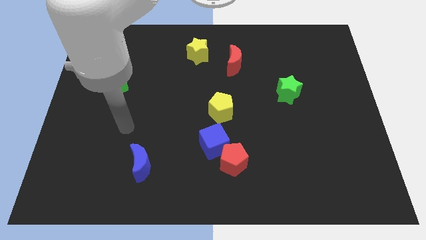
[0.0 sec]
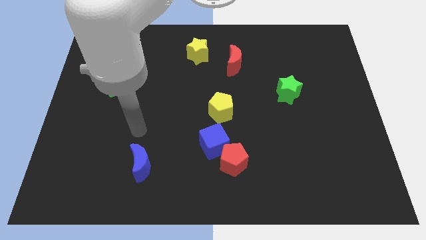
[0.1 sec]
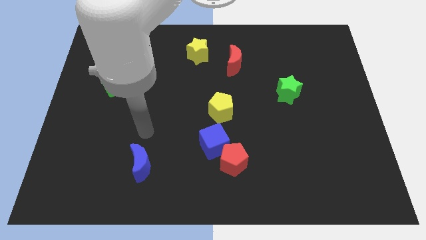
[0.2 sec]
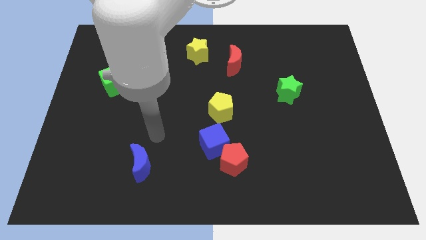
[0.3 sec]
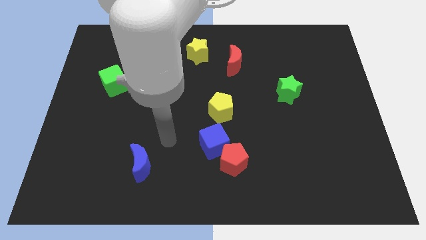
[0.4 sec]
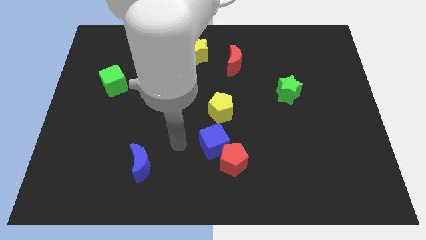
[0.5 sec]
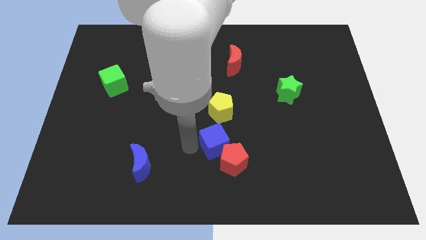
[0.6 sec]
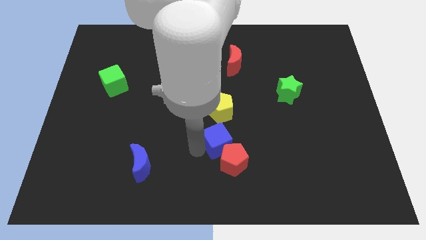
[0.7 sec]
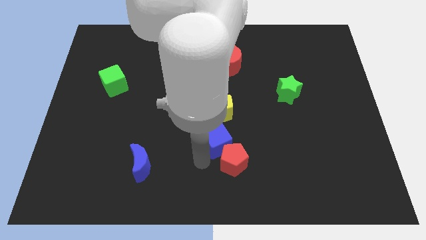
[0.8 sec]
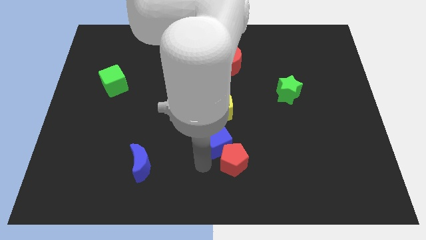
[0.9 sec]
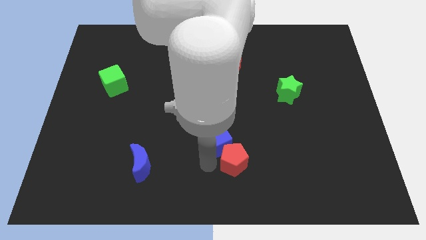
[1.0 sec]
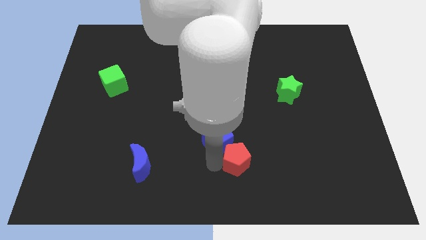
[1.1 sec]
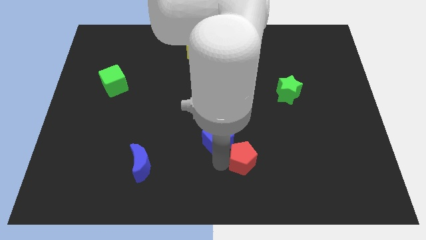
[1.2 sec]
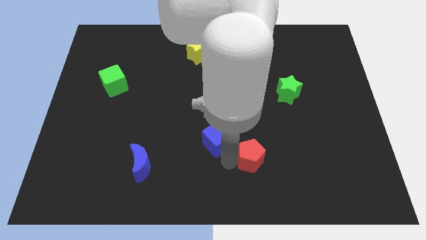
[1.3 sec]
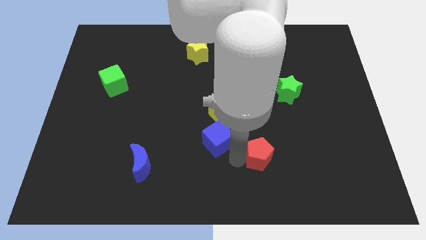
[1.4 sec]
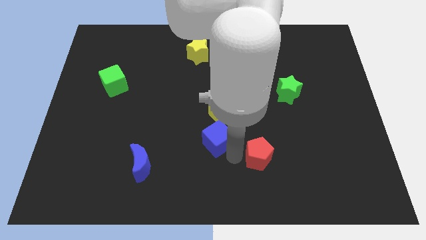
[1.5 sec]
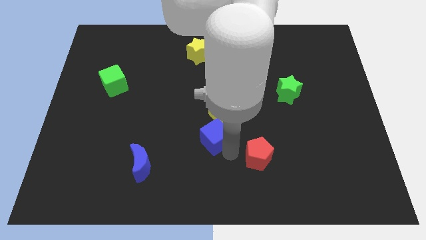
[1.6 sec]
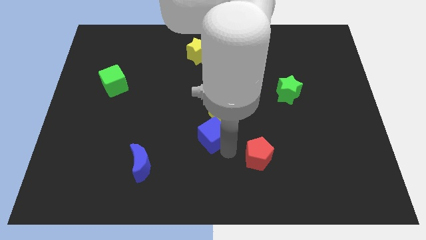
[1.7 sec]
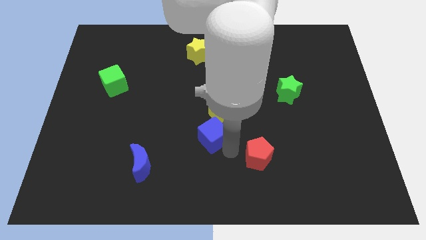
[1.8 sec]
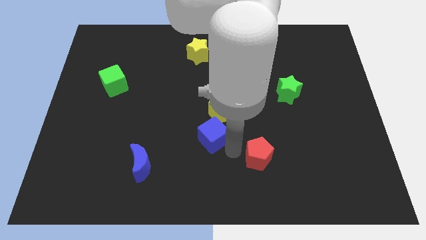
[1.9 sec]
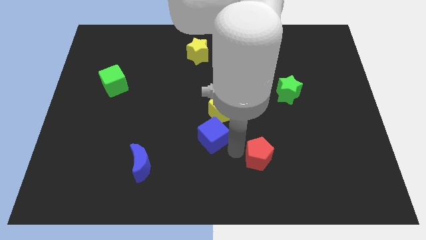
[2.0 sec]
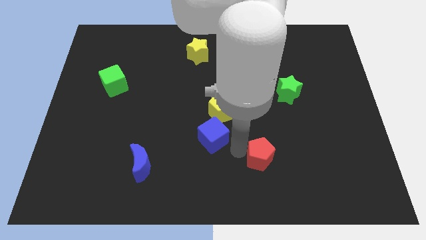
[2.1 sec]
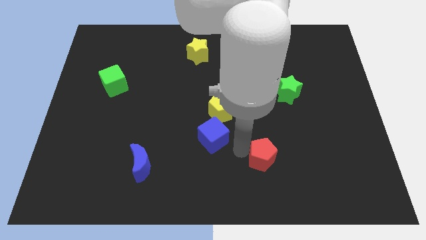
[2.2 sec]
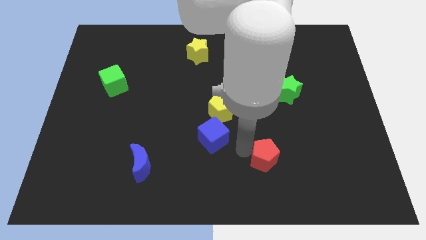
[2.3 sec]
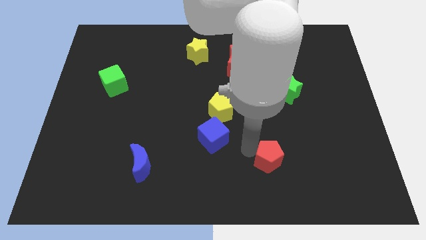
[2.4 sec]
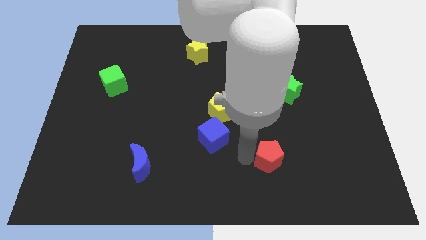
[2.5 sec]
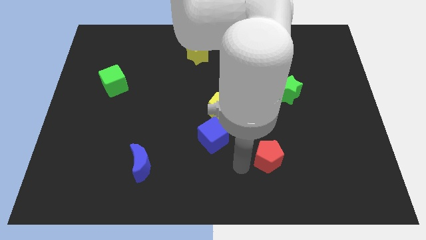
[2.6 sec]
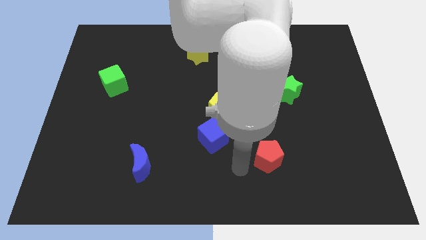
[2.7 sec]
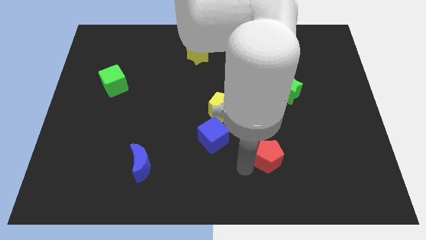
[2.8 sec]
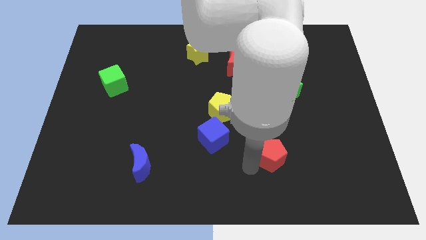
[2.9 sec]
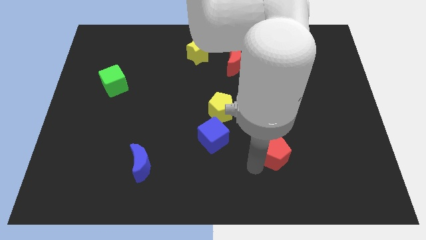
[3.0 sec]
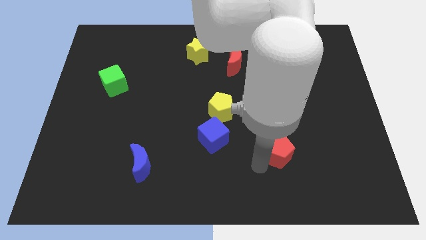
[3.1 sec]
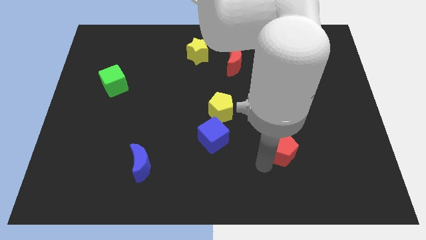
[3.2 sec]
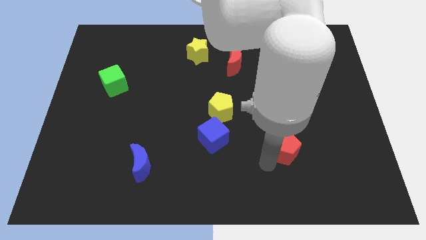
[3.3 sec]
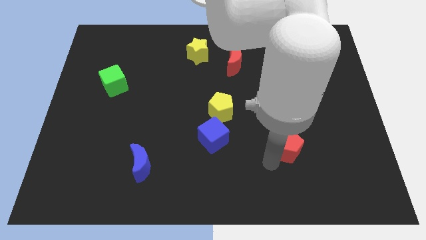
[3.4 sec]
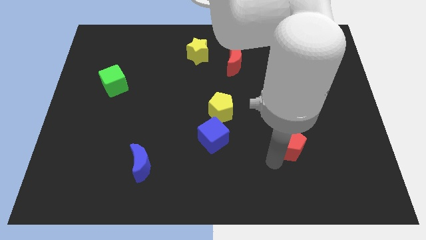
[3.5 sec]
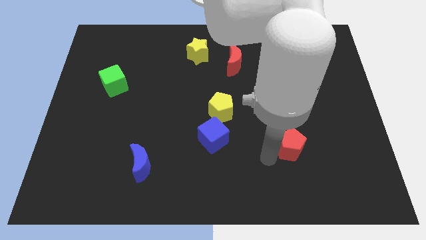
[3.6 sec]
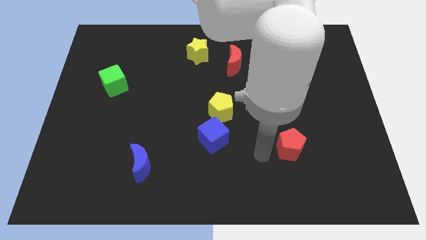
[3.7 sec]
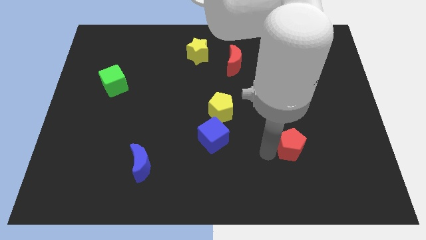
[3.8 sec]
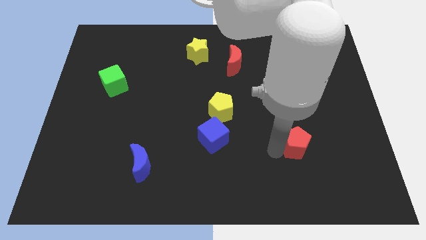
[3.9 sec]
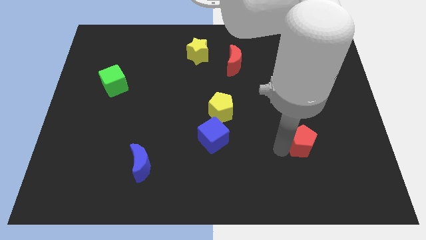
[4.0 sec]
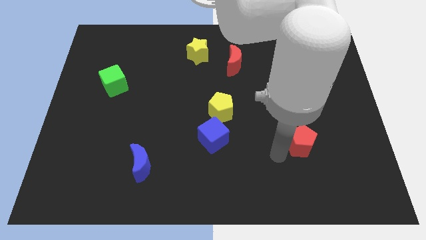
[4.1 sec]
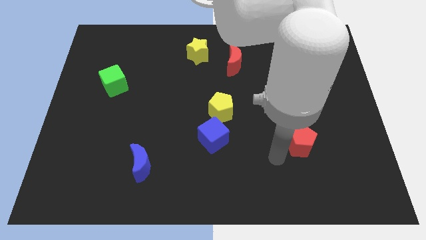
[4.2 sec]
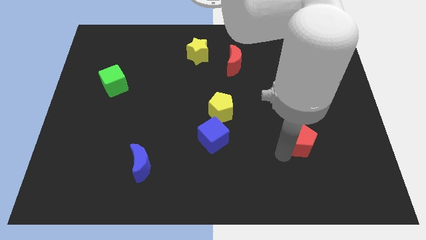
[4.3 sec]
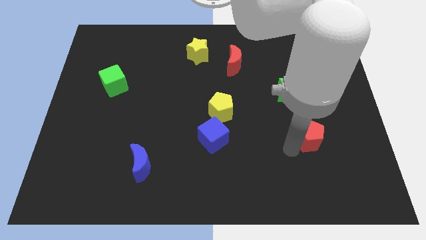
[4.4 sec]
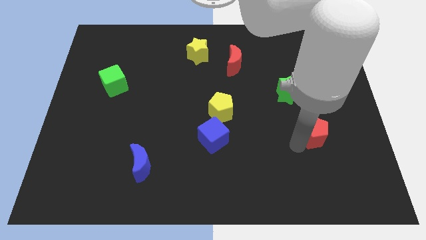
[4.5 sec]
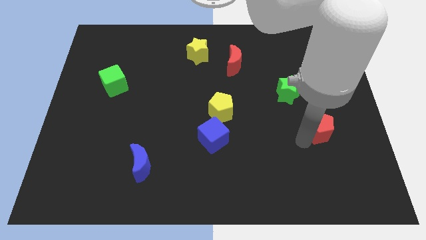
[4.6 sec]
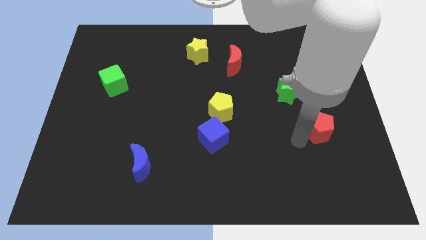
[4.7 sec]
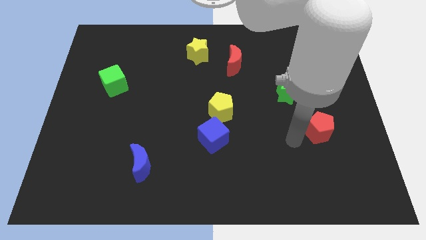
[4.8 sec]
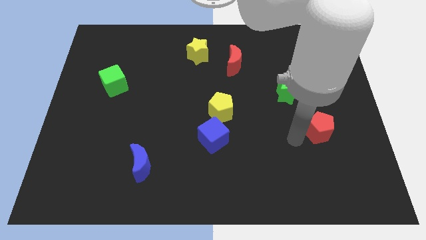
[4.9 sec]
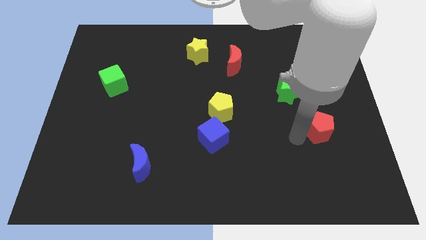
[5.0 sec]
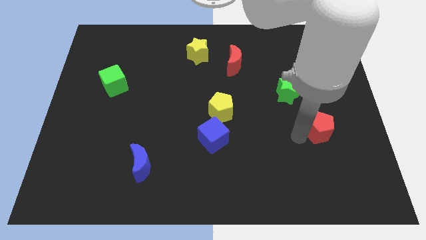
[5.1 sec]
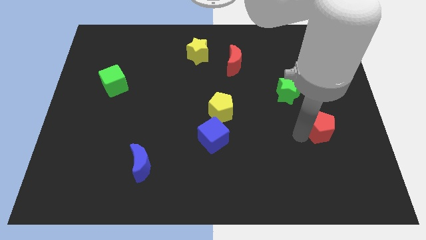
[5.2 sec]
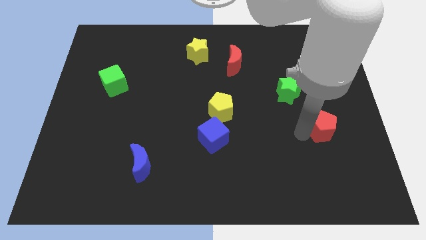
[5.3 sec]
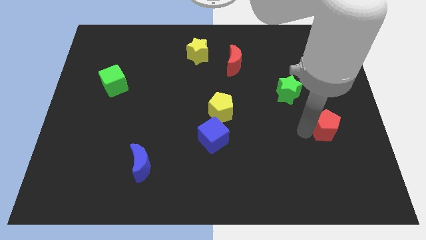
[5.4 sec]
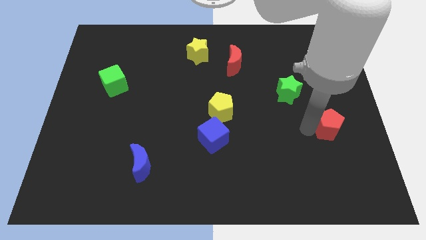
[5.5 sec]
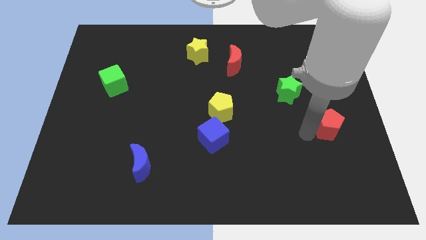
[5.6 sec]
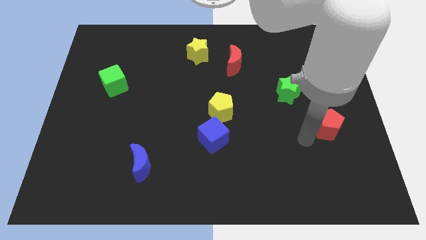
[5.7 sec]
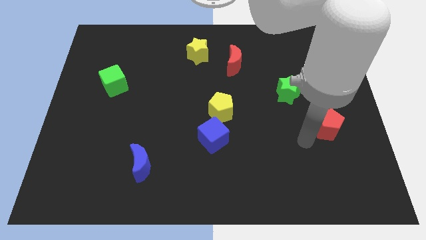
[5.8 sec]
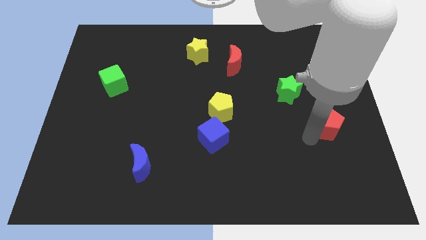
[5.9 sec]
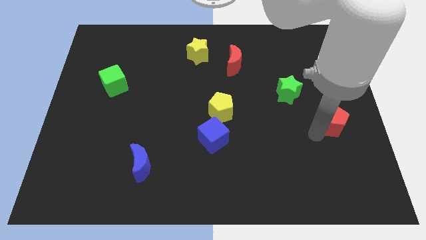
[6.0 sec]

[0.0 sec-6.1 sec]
put the red pentagon to the right side of the board
